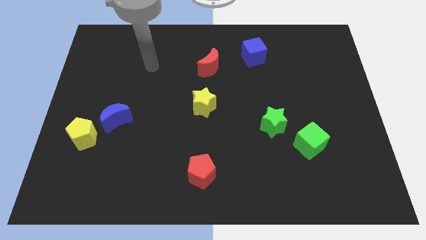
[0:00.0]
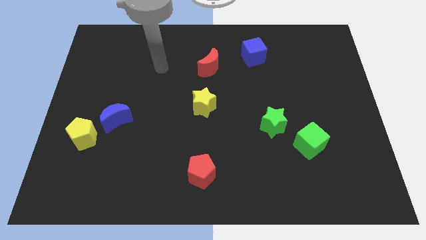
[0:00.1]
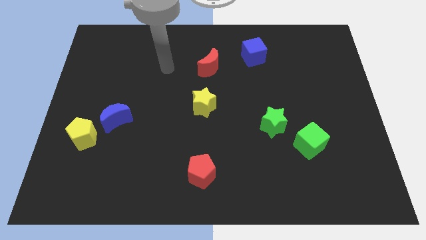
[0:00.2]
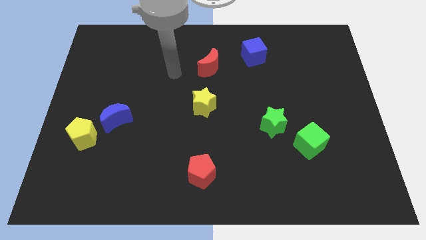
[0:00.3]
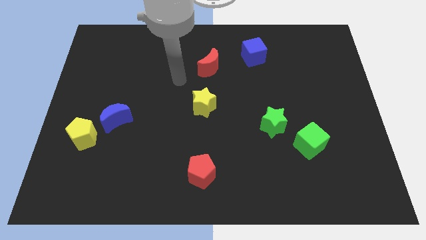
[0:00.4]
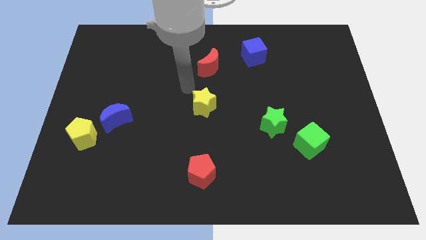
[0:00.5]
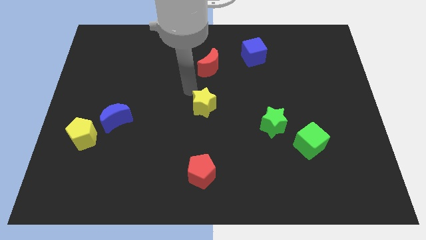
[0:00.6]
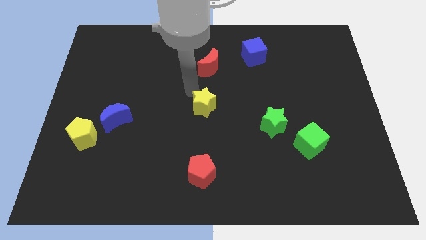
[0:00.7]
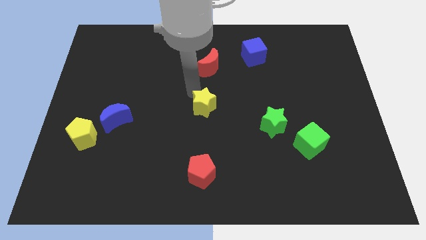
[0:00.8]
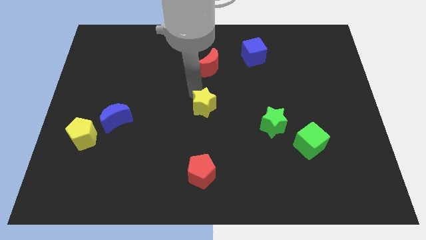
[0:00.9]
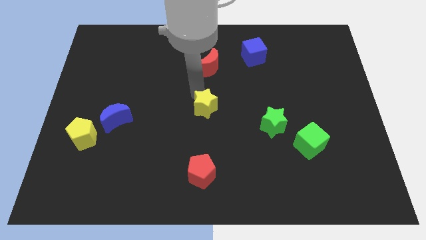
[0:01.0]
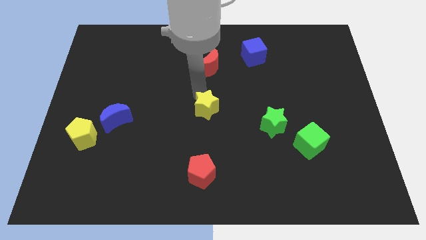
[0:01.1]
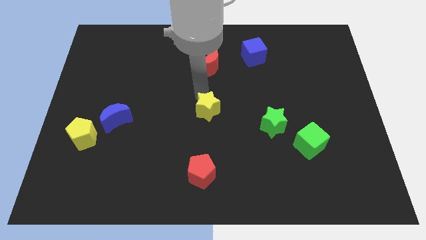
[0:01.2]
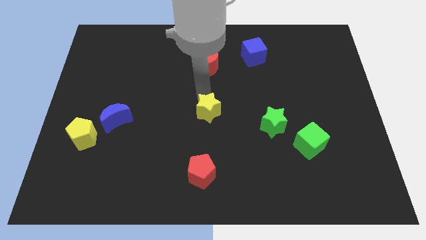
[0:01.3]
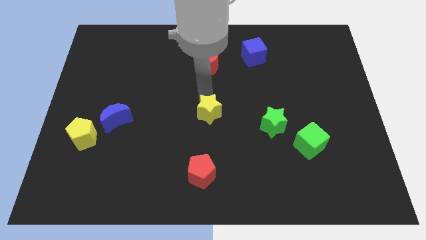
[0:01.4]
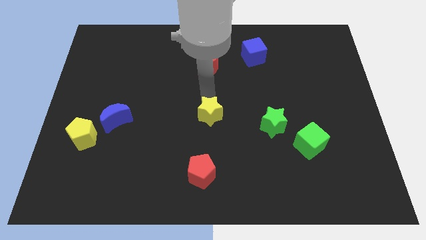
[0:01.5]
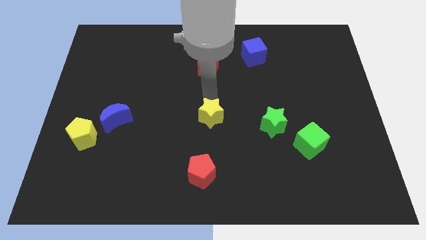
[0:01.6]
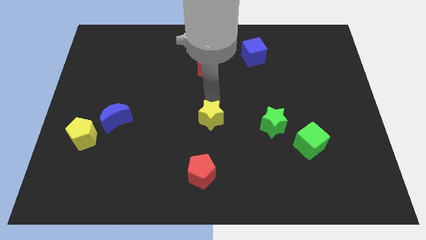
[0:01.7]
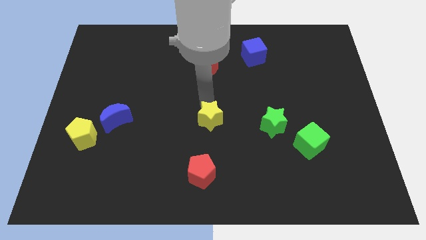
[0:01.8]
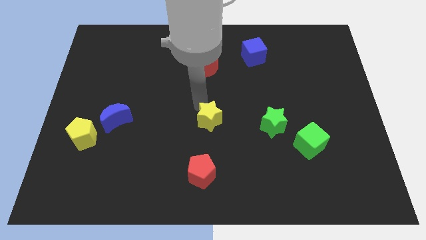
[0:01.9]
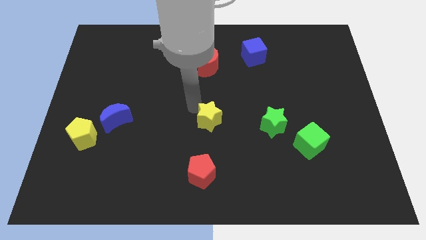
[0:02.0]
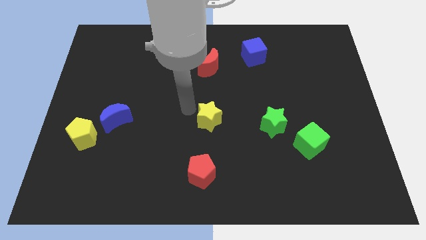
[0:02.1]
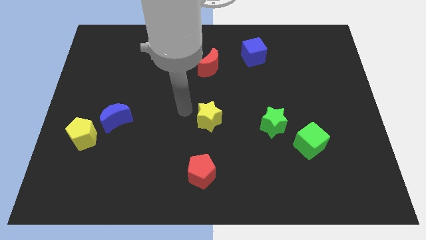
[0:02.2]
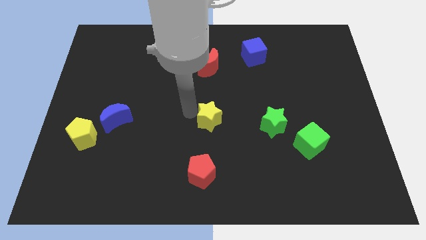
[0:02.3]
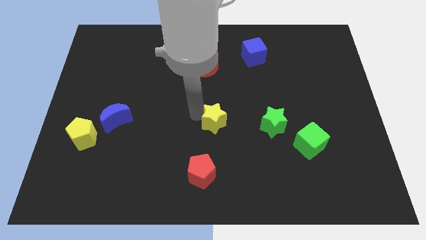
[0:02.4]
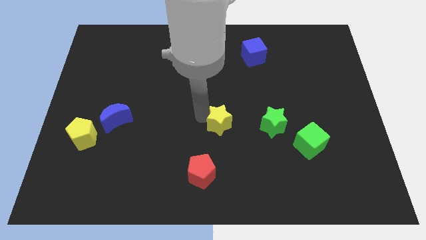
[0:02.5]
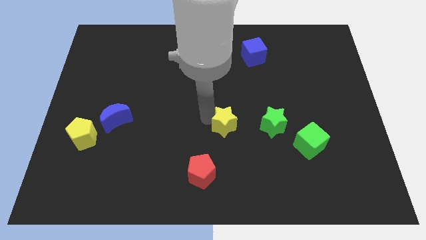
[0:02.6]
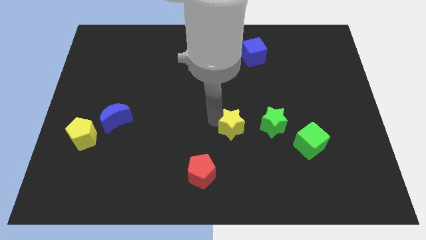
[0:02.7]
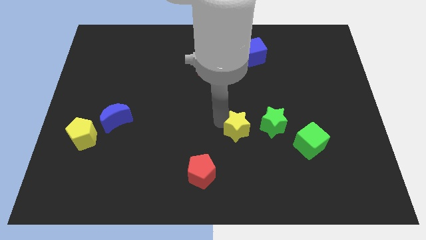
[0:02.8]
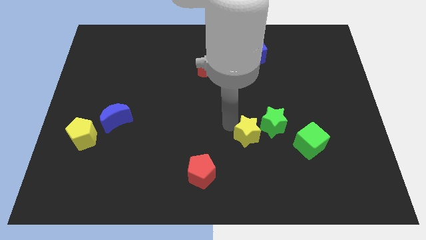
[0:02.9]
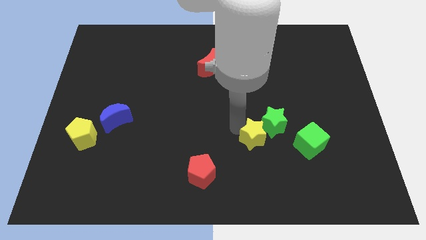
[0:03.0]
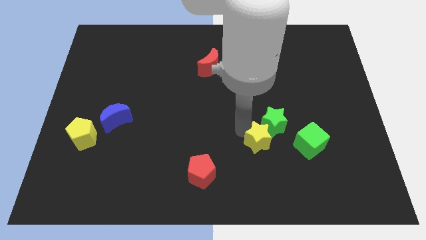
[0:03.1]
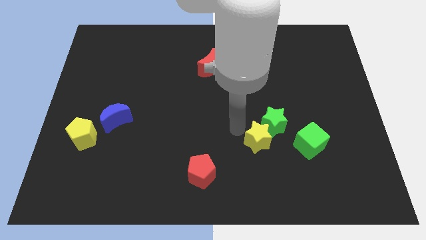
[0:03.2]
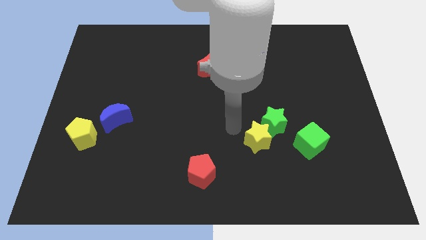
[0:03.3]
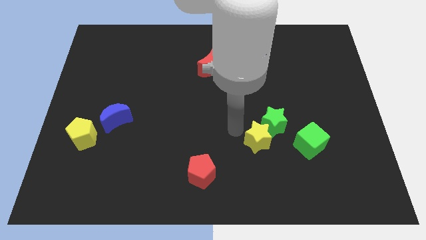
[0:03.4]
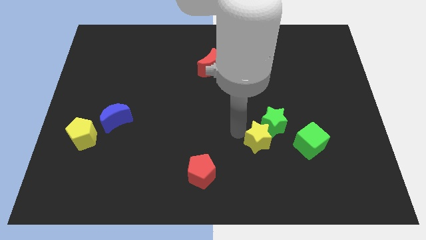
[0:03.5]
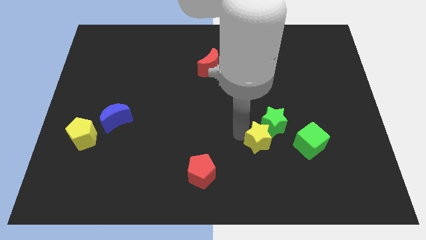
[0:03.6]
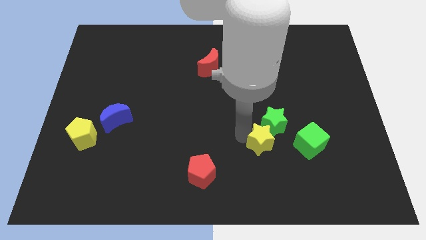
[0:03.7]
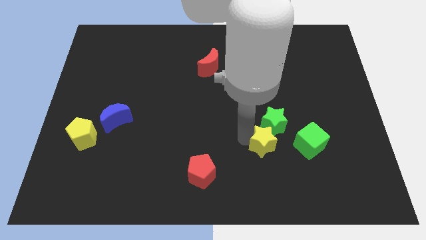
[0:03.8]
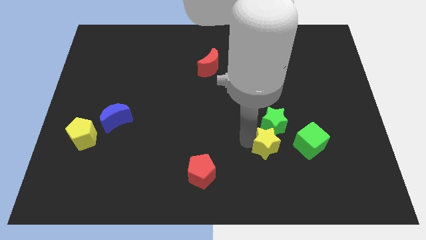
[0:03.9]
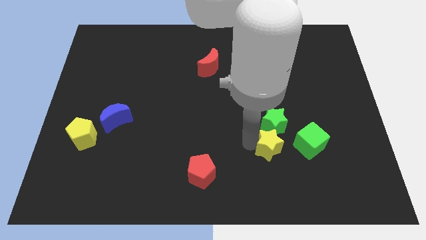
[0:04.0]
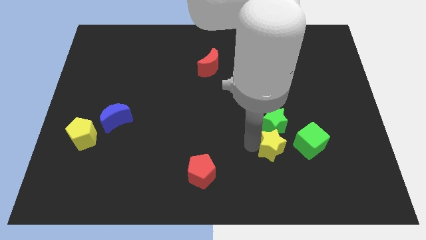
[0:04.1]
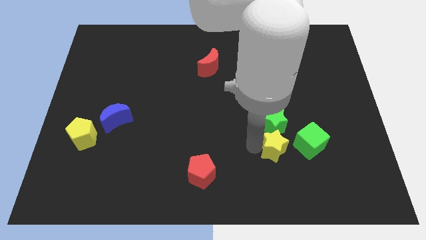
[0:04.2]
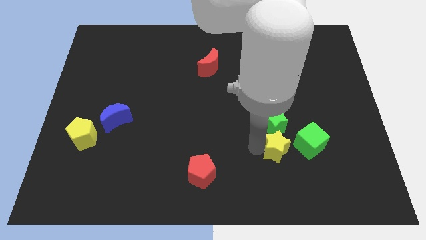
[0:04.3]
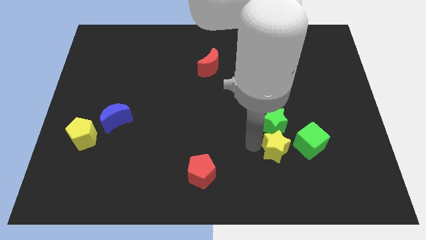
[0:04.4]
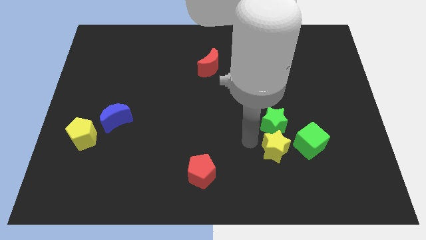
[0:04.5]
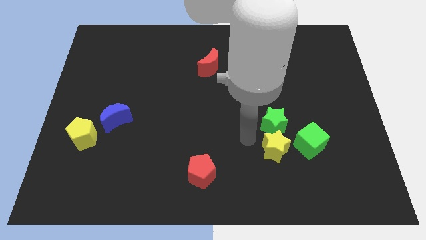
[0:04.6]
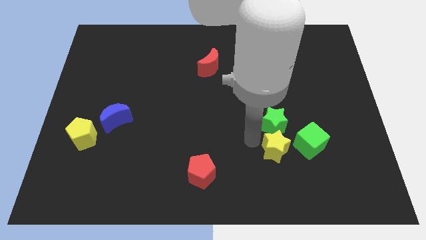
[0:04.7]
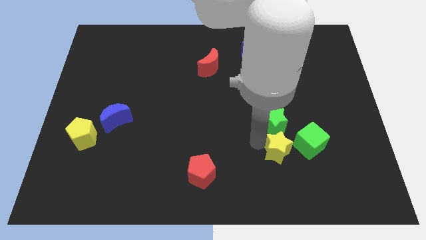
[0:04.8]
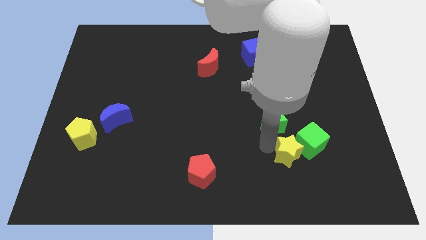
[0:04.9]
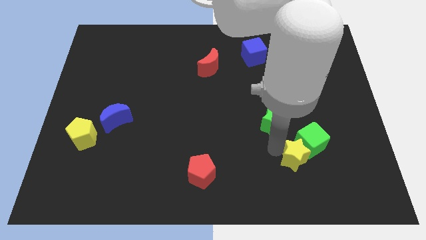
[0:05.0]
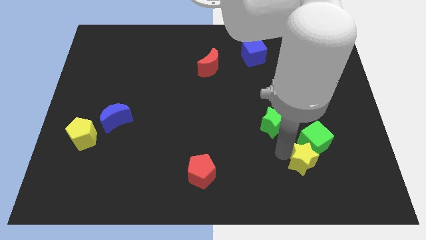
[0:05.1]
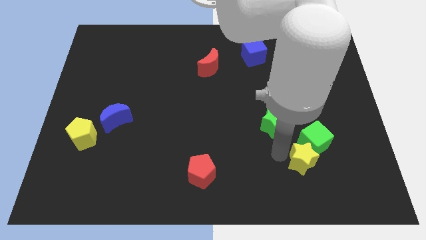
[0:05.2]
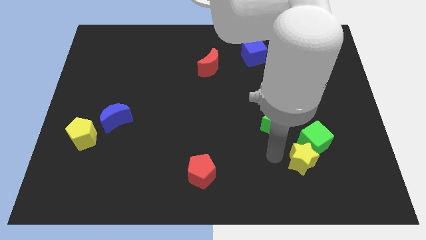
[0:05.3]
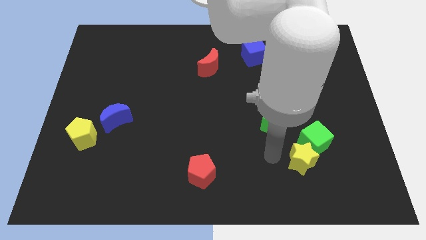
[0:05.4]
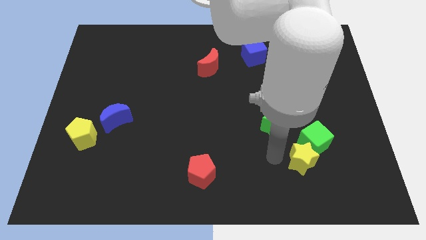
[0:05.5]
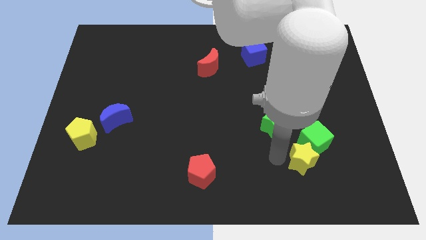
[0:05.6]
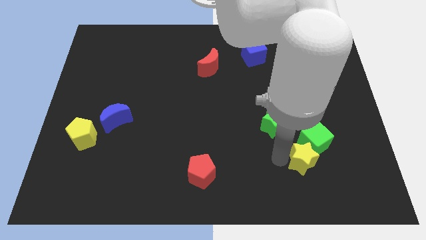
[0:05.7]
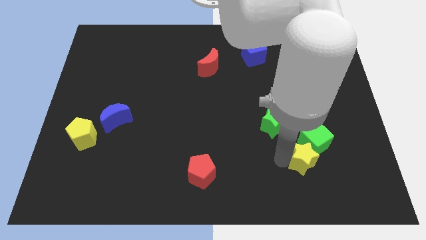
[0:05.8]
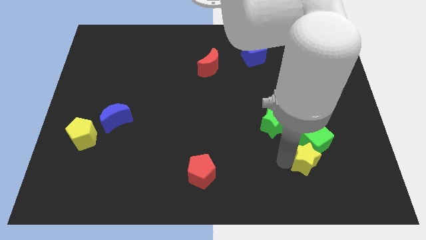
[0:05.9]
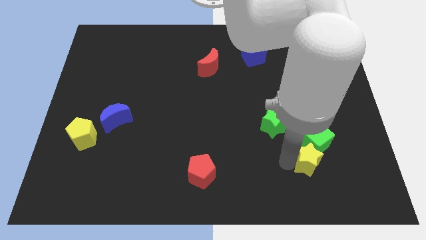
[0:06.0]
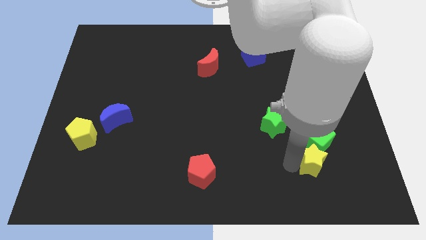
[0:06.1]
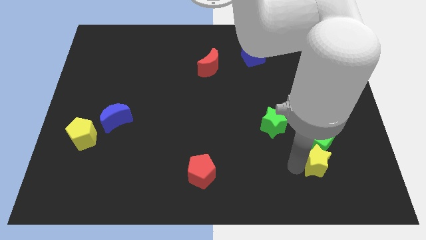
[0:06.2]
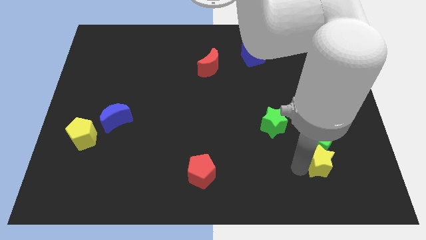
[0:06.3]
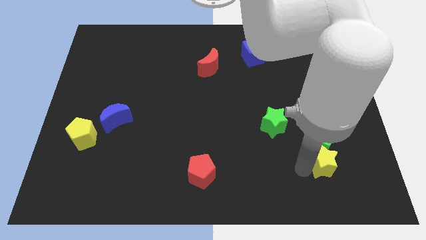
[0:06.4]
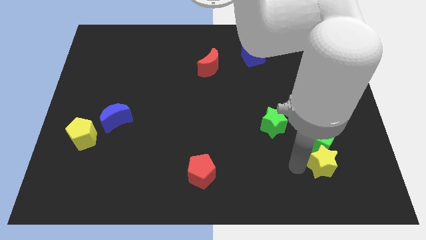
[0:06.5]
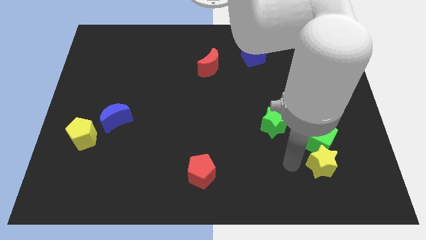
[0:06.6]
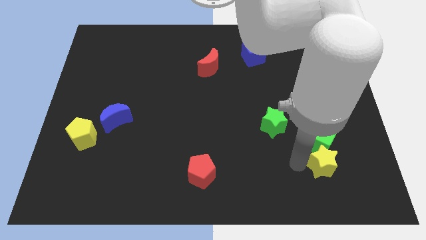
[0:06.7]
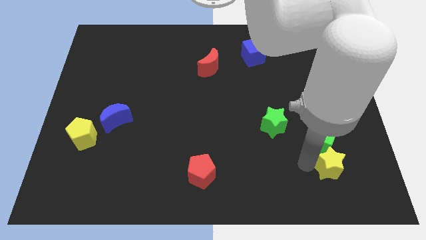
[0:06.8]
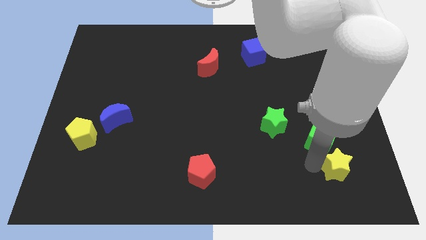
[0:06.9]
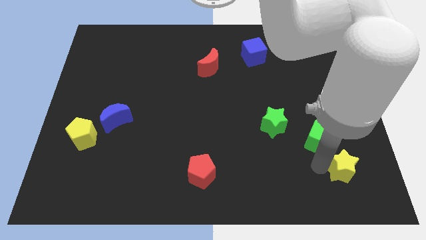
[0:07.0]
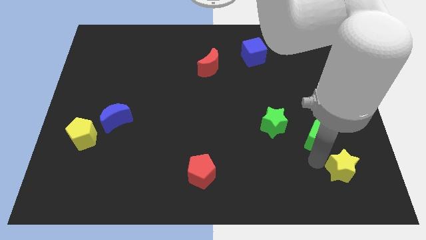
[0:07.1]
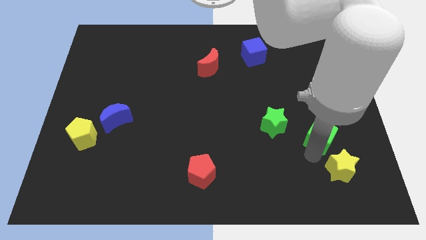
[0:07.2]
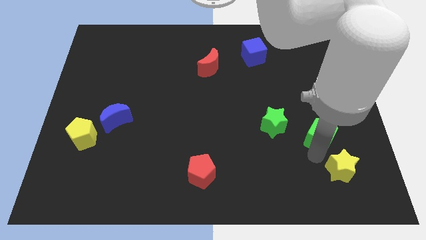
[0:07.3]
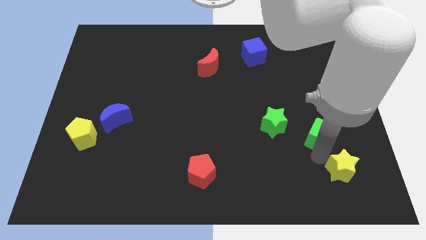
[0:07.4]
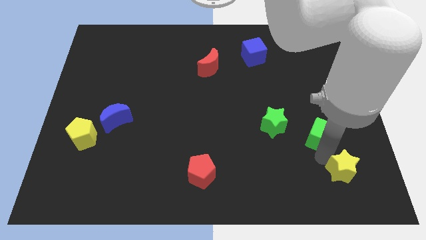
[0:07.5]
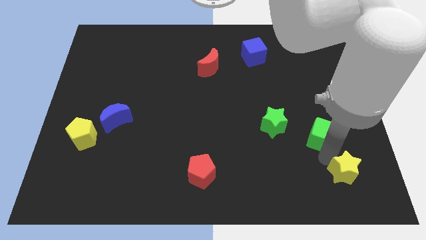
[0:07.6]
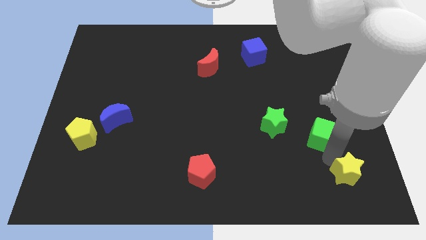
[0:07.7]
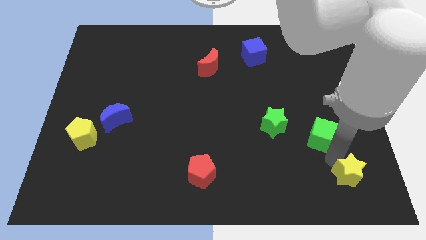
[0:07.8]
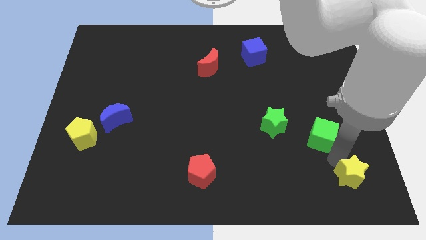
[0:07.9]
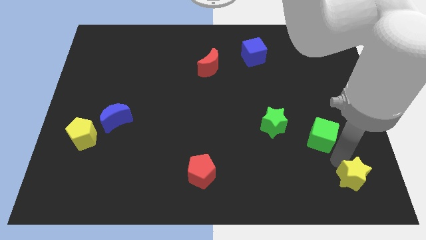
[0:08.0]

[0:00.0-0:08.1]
push the yellow star to the lower right corner
